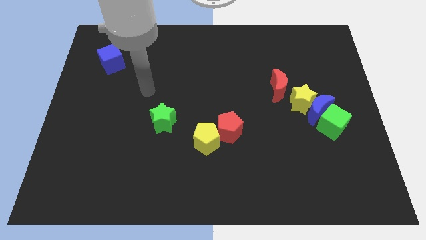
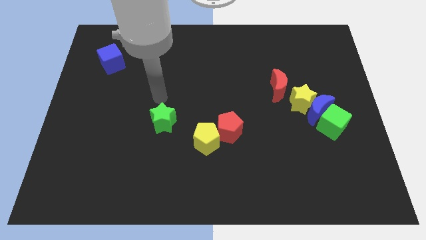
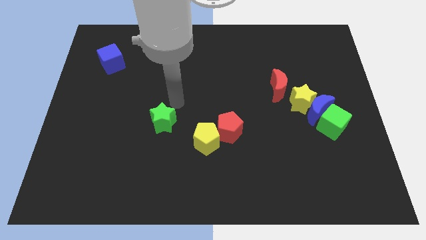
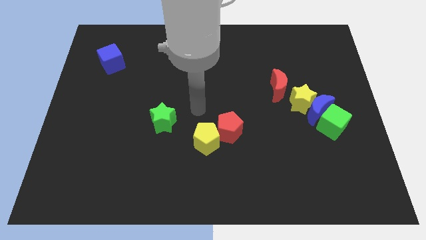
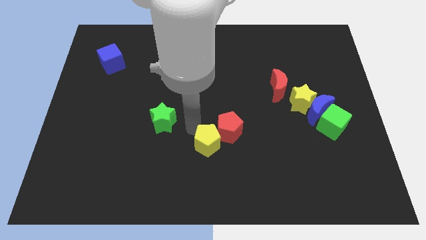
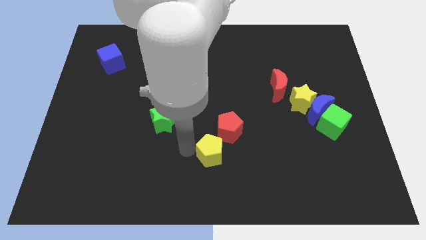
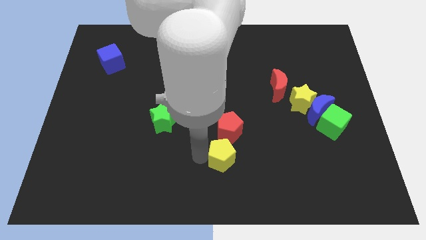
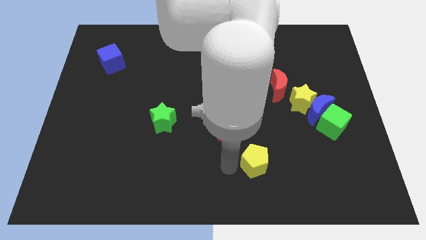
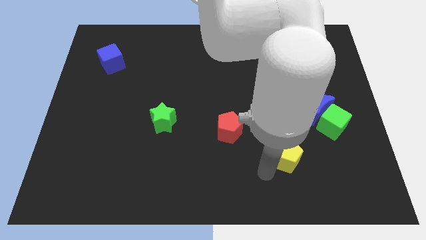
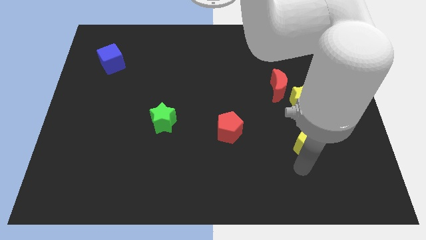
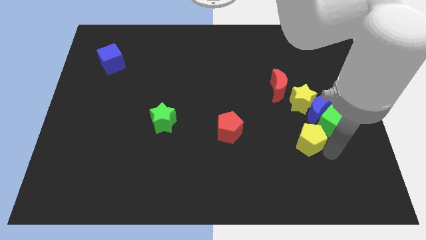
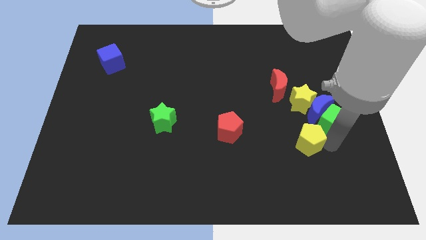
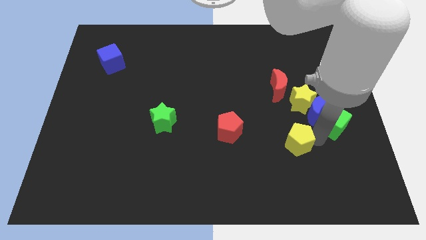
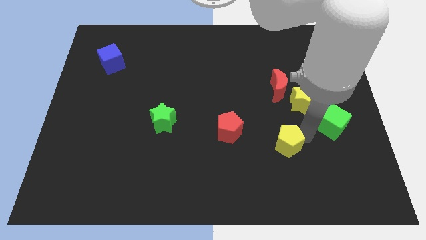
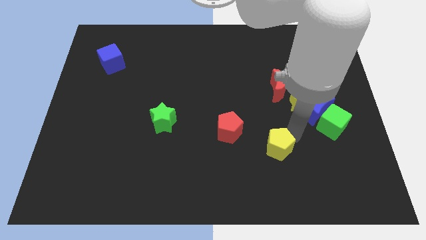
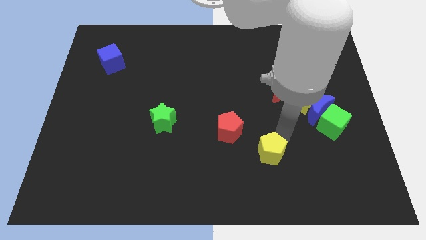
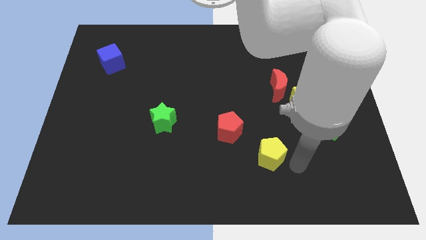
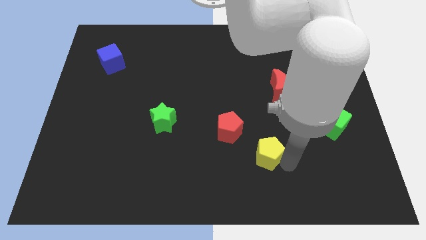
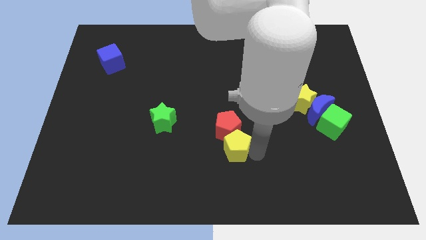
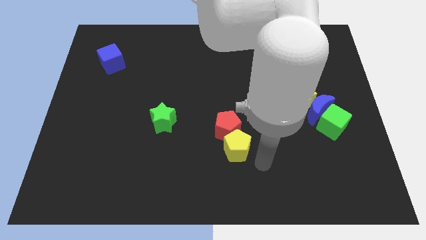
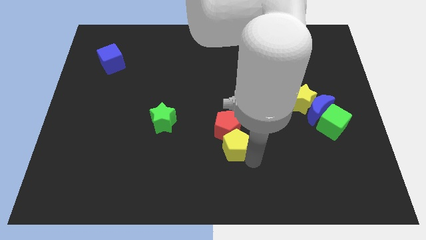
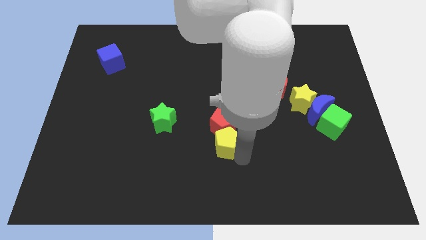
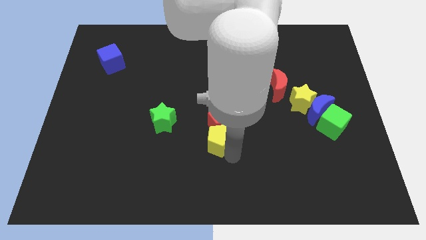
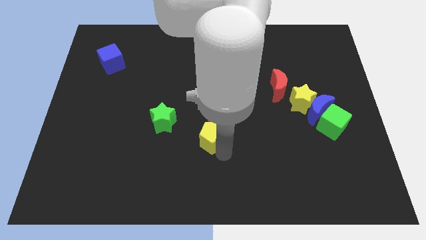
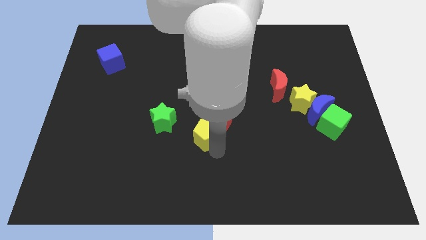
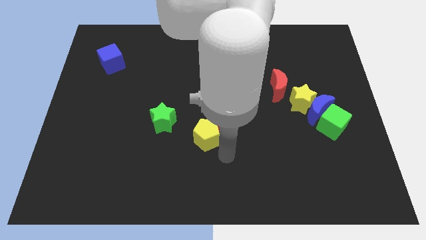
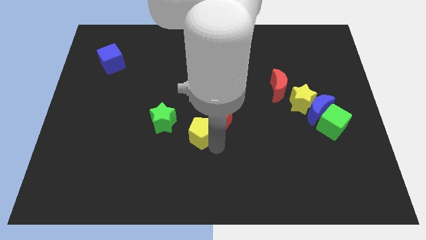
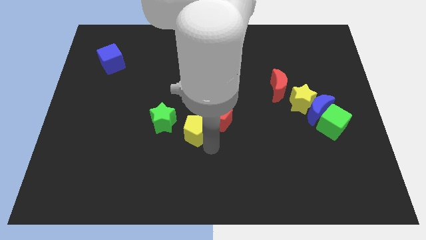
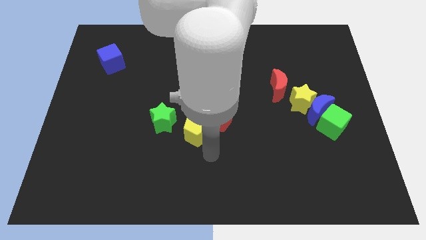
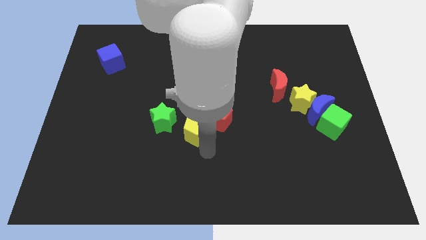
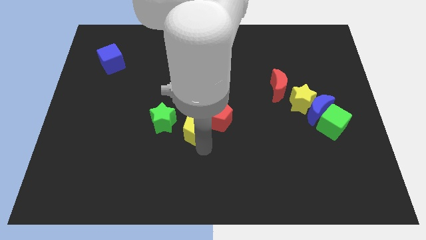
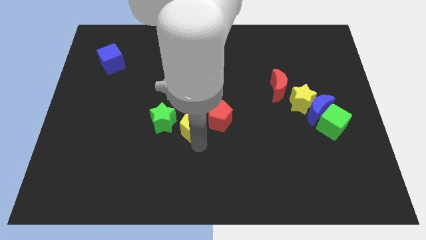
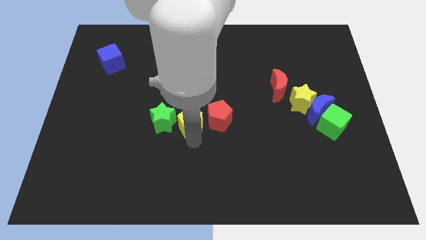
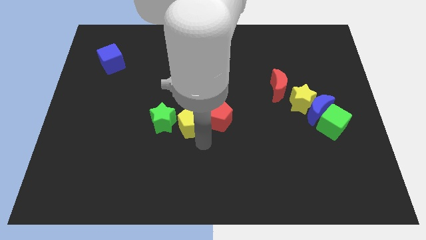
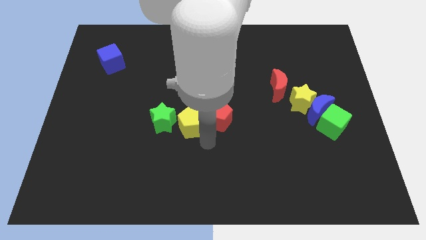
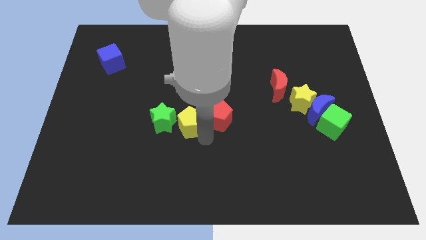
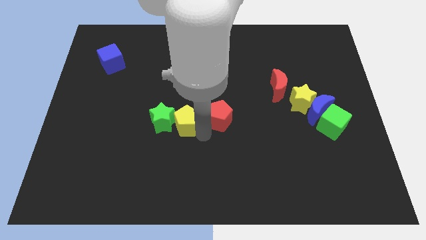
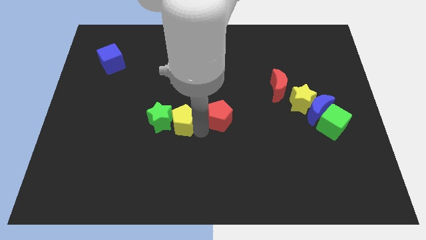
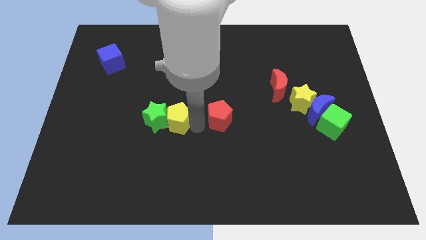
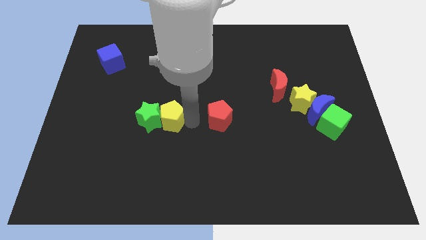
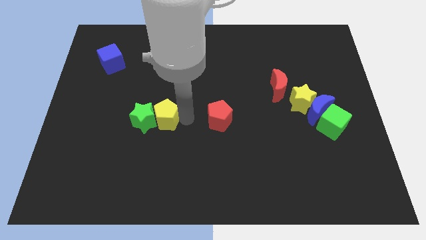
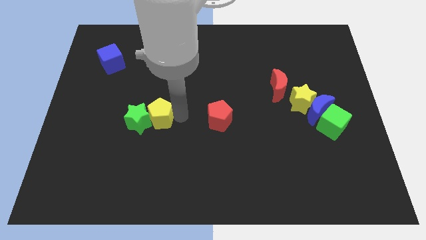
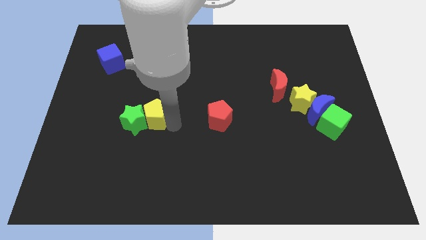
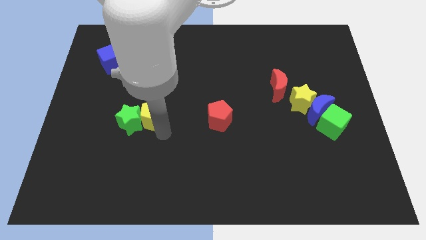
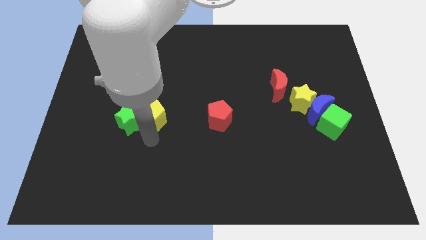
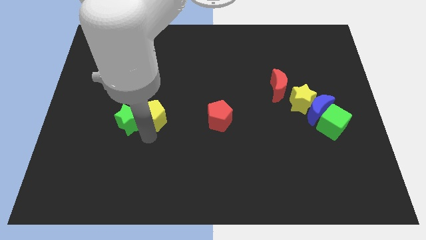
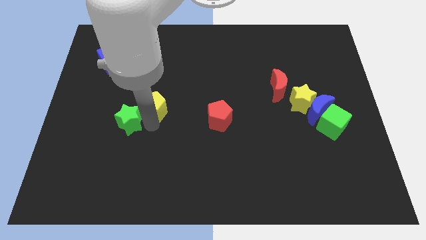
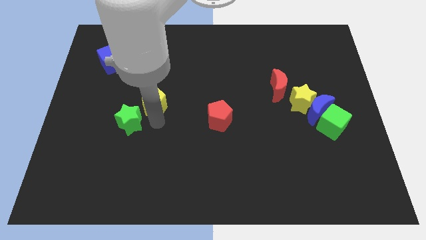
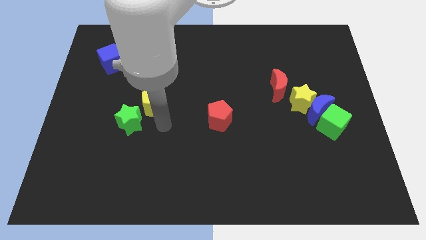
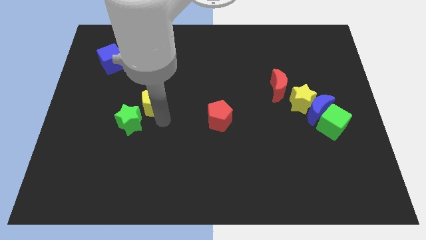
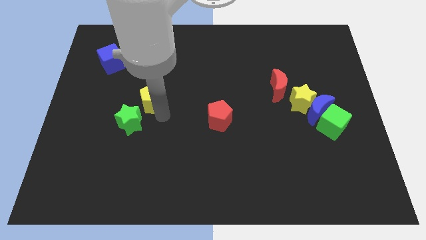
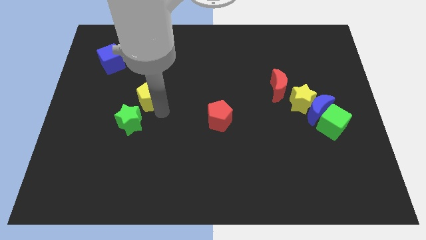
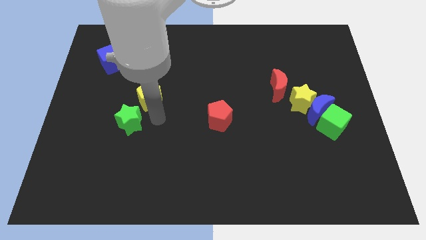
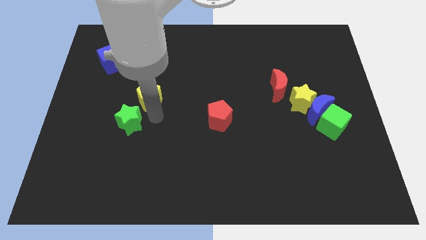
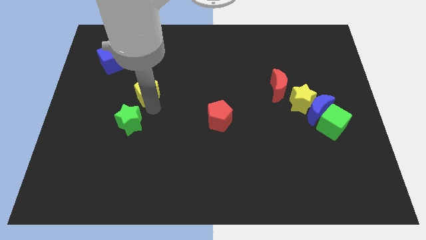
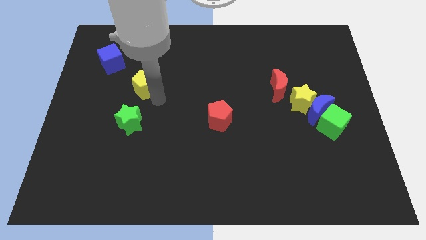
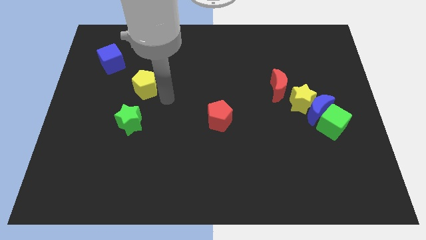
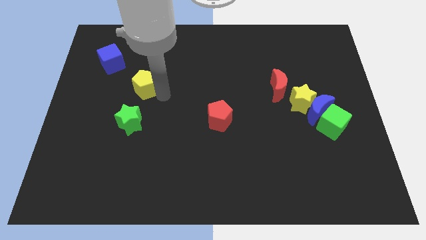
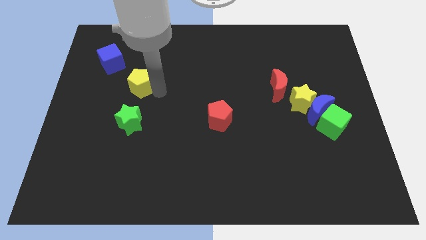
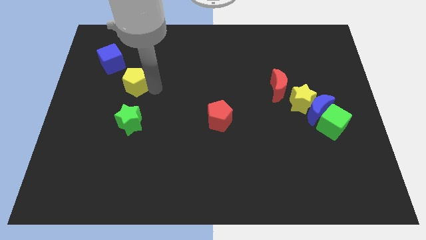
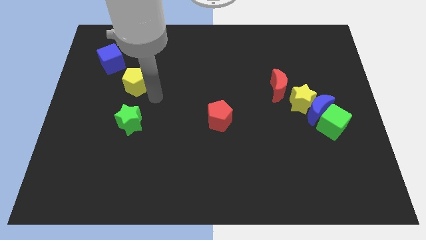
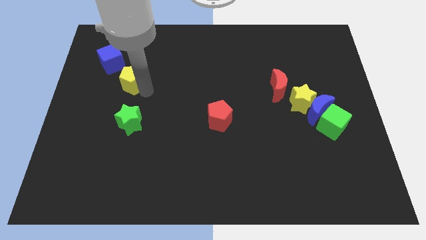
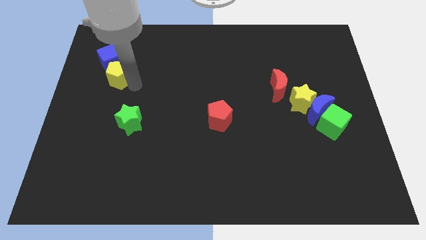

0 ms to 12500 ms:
slide the yellow pentagon next to the blue cube

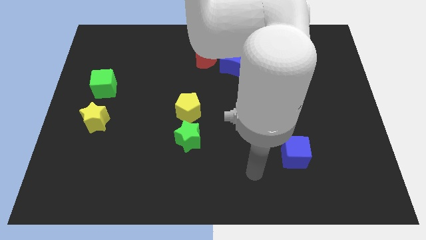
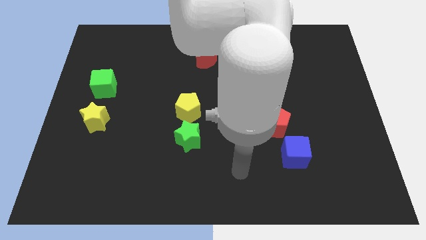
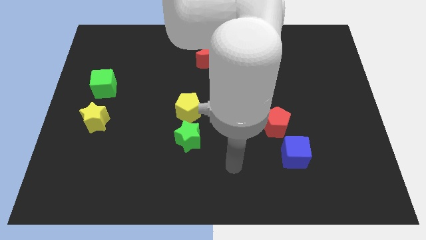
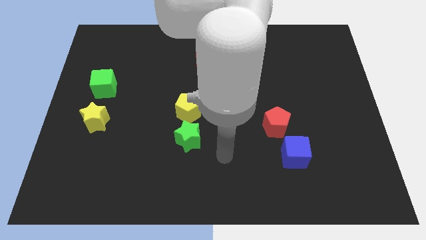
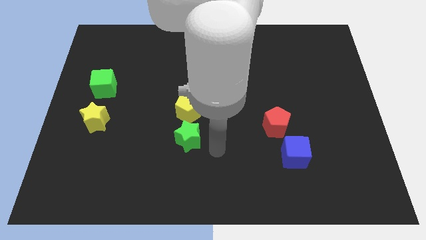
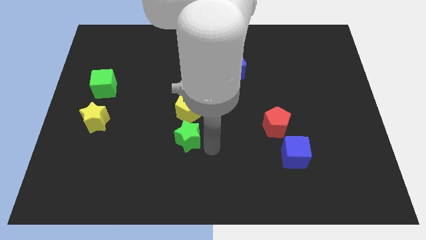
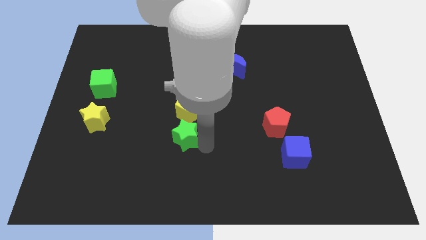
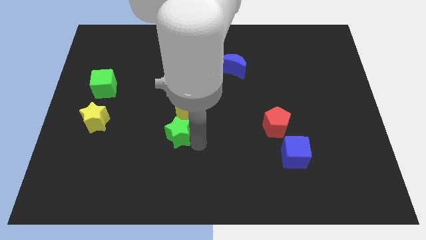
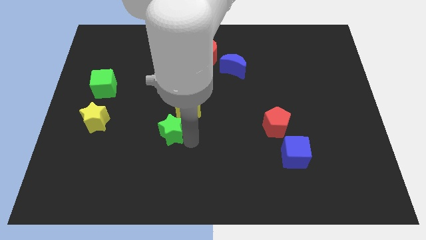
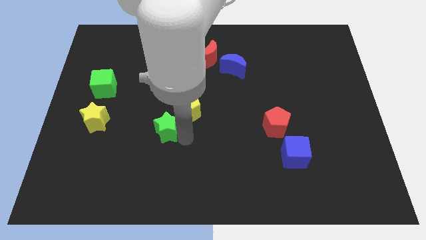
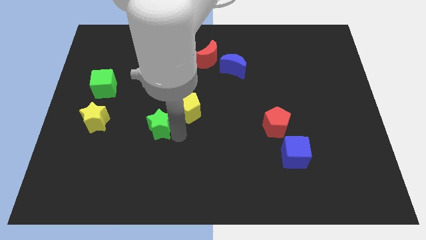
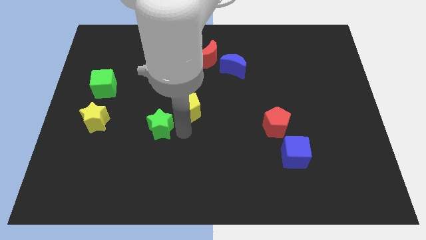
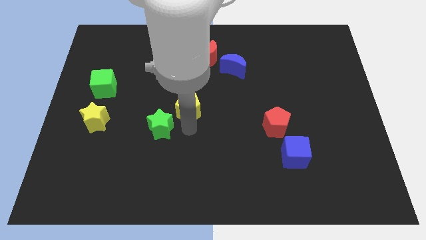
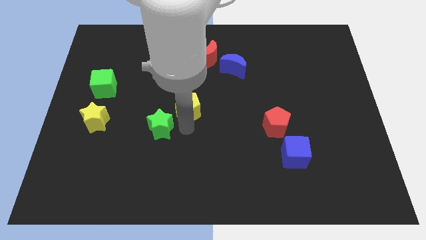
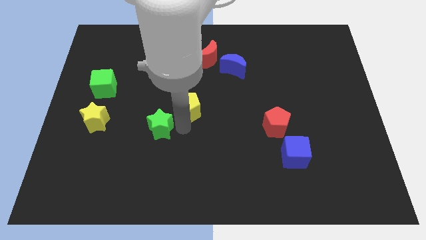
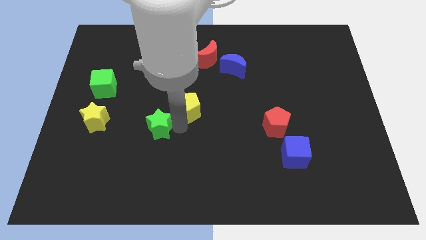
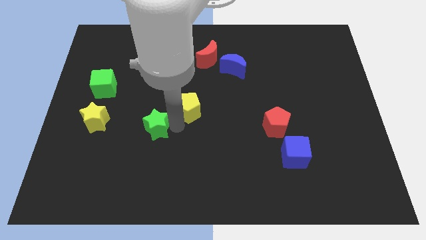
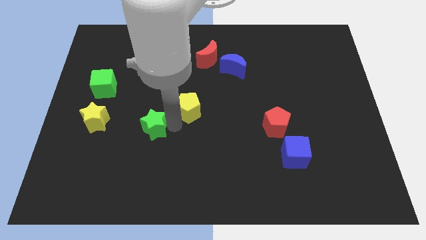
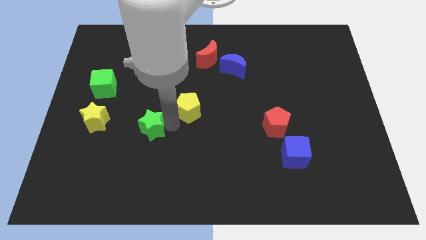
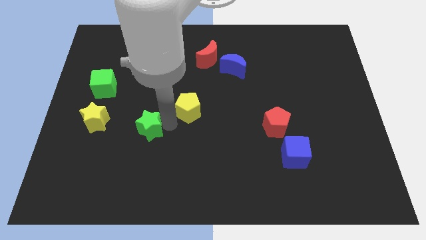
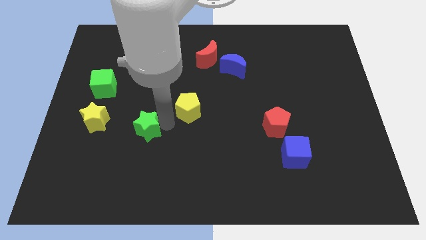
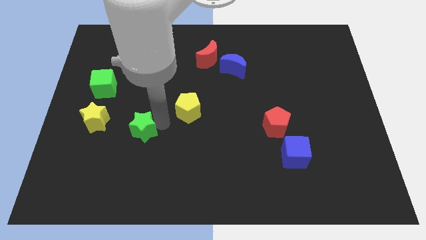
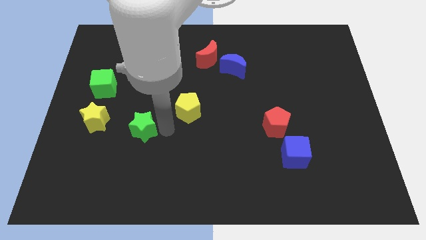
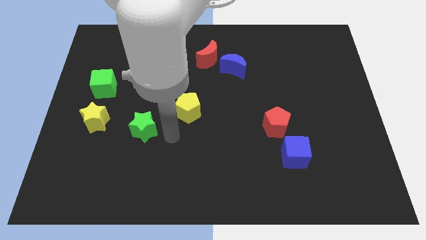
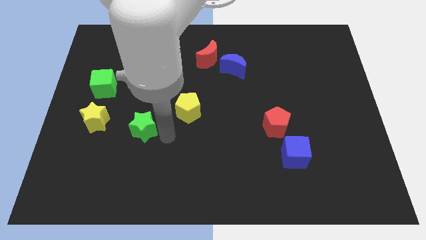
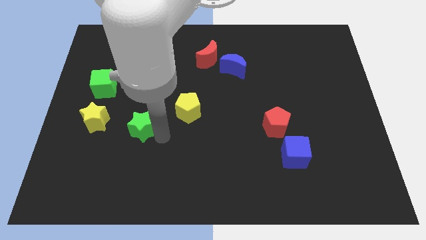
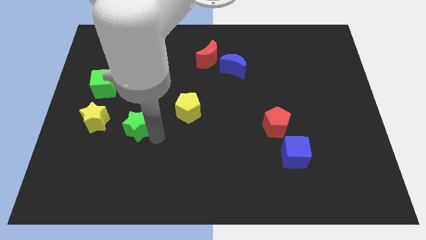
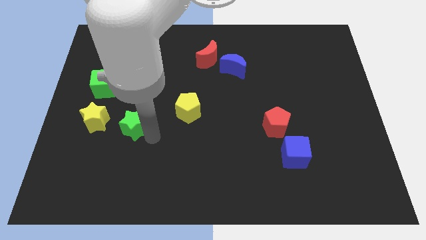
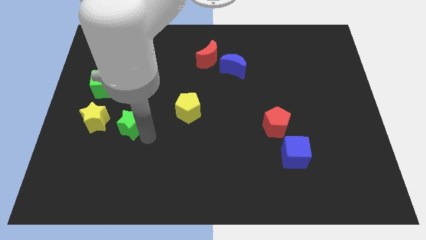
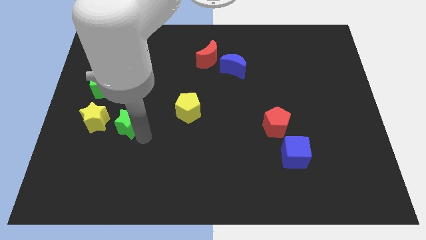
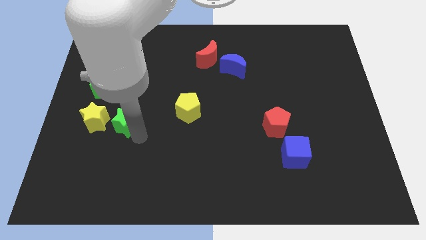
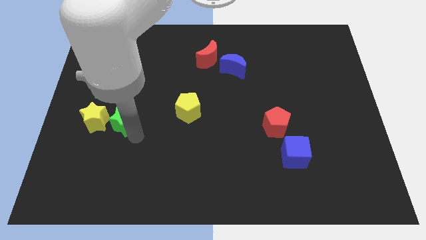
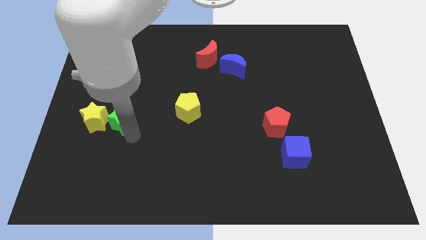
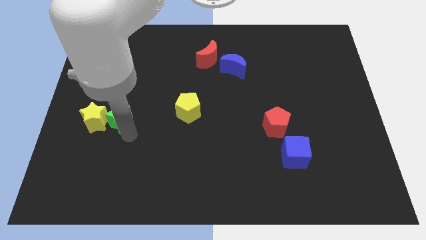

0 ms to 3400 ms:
move the green star to the yellow star
